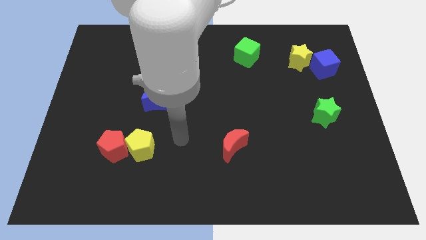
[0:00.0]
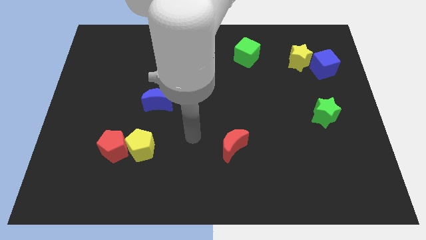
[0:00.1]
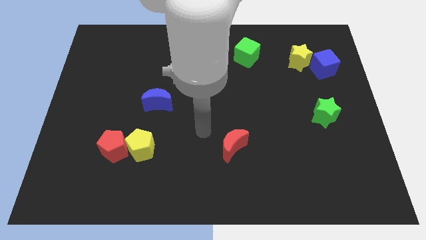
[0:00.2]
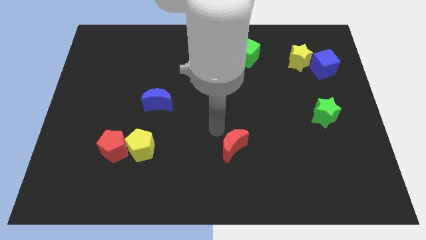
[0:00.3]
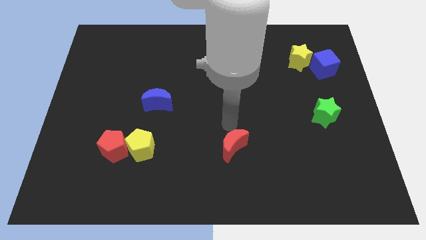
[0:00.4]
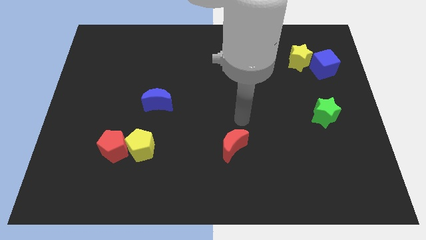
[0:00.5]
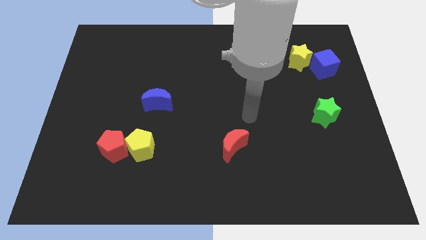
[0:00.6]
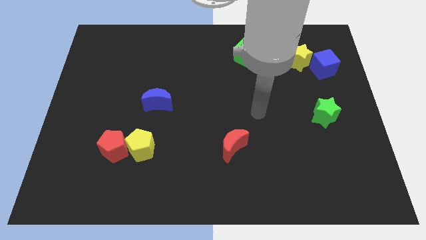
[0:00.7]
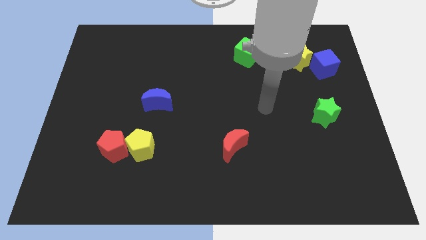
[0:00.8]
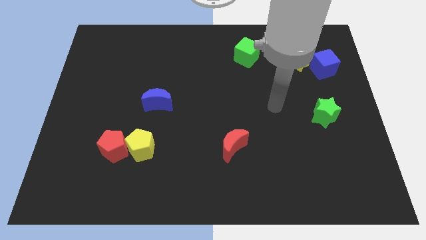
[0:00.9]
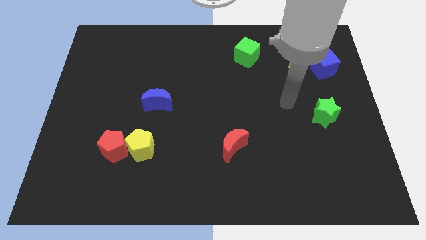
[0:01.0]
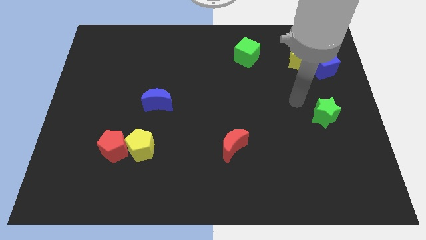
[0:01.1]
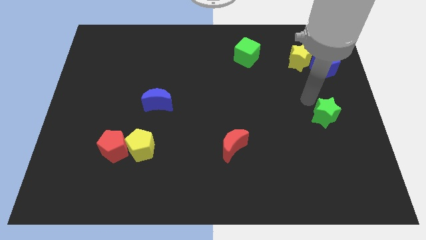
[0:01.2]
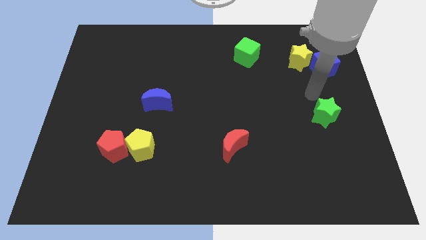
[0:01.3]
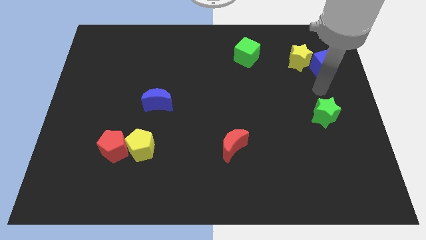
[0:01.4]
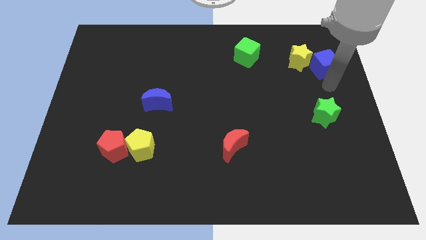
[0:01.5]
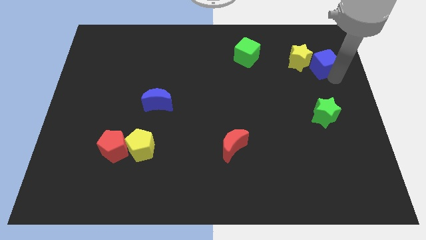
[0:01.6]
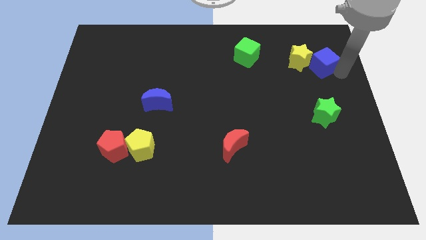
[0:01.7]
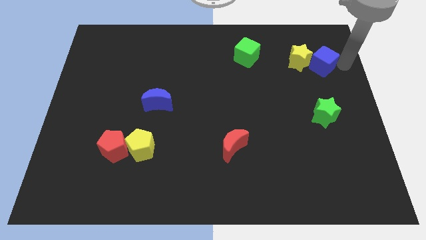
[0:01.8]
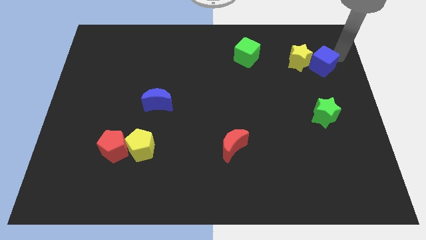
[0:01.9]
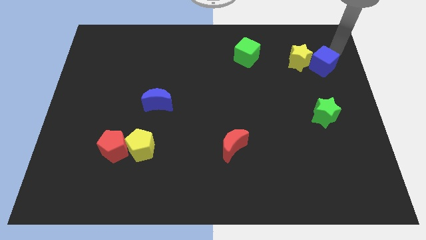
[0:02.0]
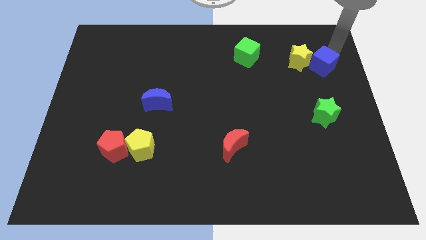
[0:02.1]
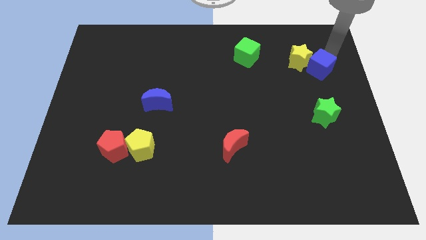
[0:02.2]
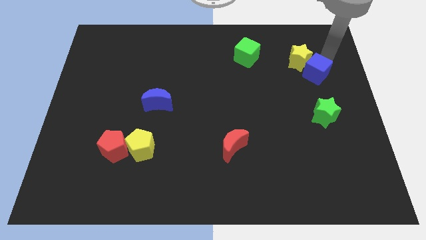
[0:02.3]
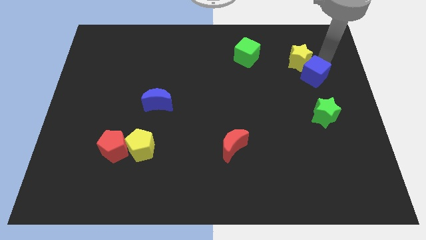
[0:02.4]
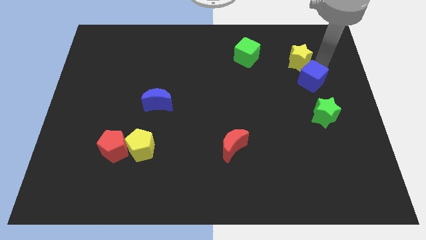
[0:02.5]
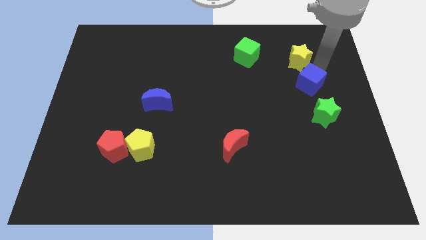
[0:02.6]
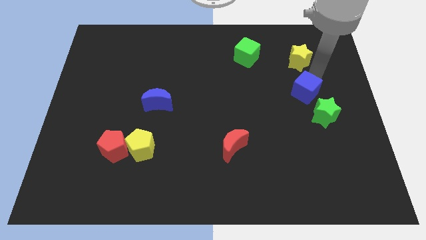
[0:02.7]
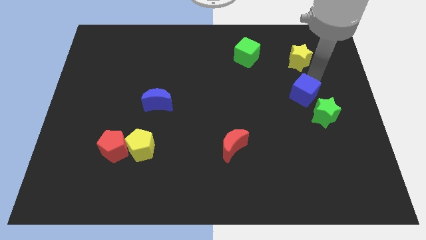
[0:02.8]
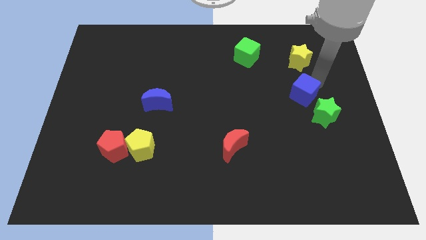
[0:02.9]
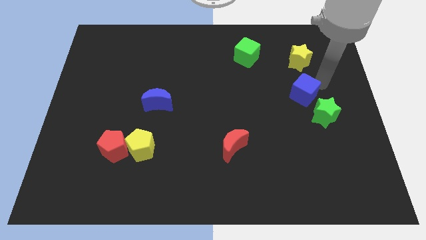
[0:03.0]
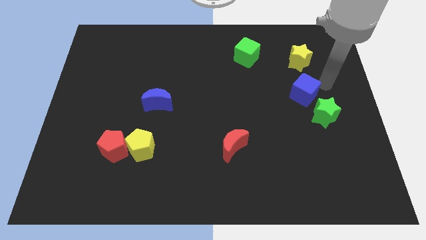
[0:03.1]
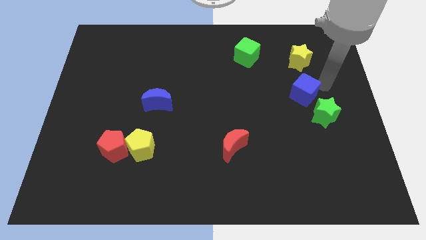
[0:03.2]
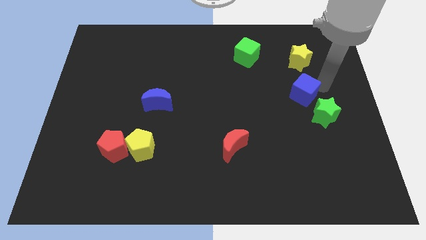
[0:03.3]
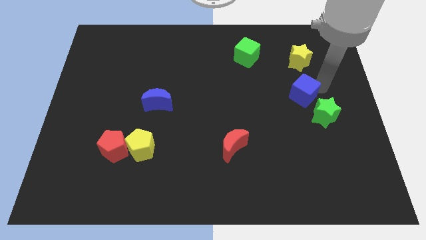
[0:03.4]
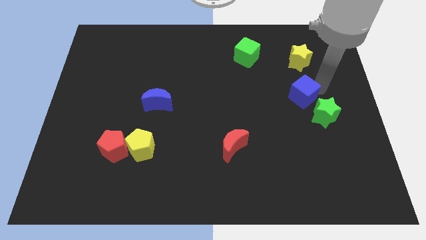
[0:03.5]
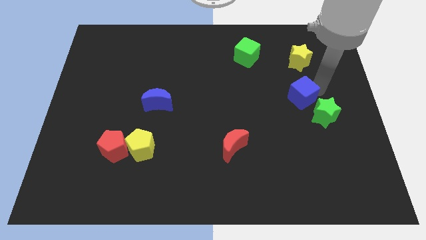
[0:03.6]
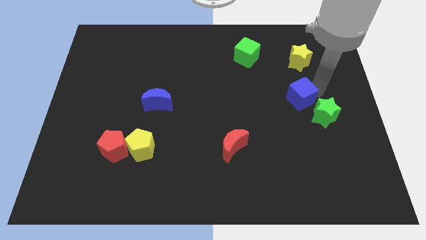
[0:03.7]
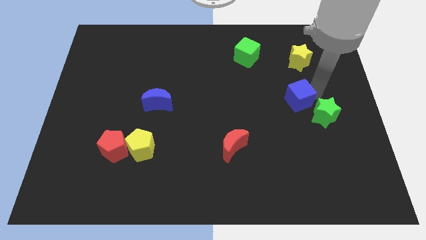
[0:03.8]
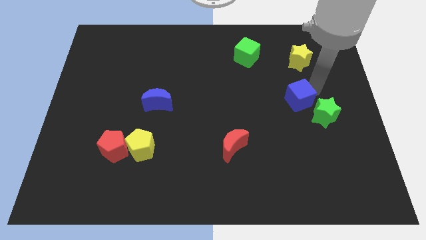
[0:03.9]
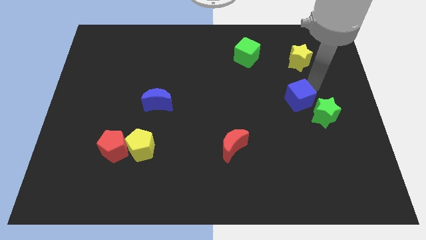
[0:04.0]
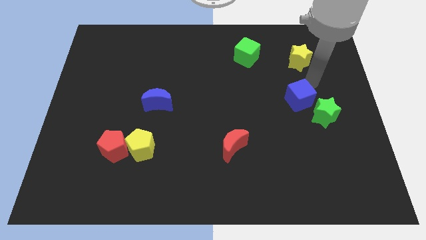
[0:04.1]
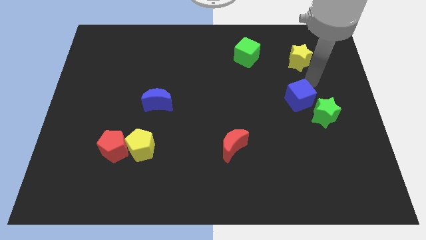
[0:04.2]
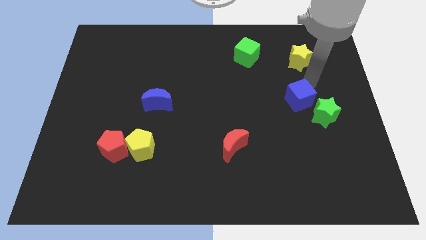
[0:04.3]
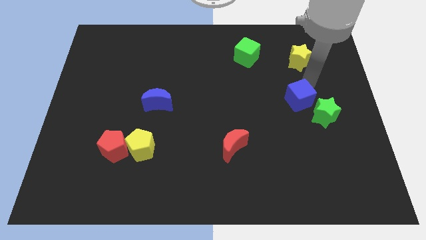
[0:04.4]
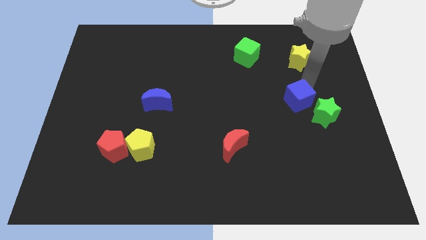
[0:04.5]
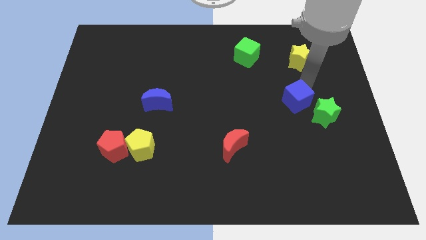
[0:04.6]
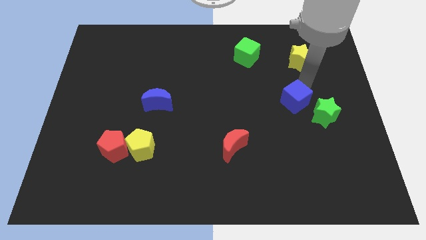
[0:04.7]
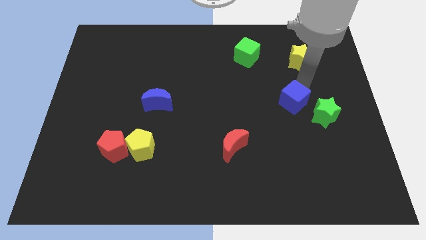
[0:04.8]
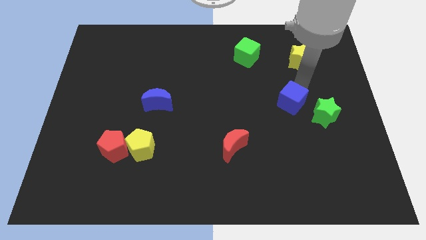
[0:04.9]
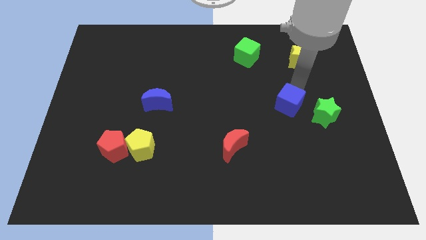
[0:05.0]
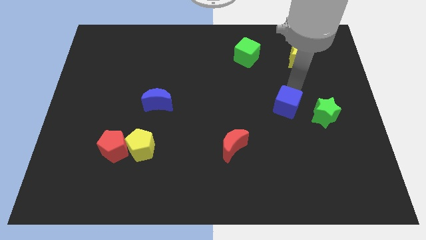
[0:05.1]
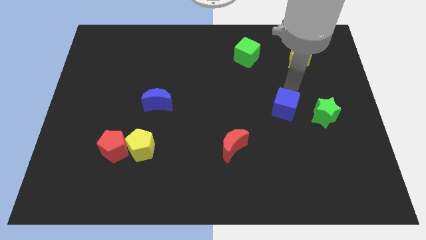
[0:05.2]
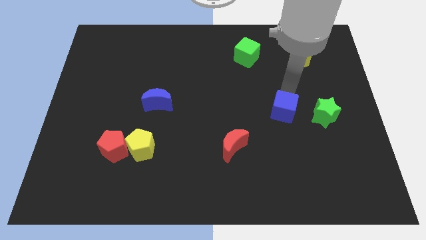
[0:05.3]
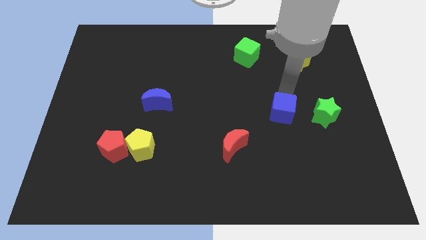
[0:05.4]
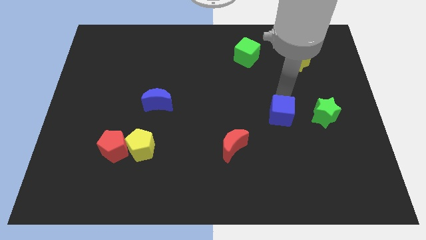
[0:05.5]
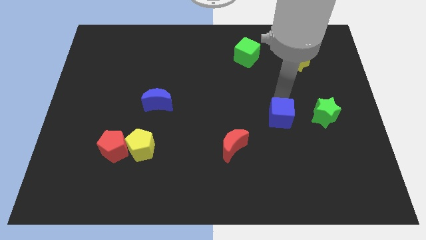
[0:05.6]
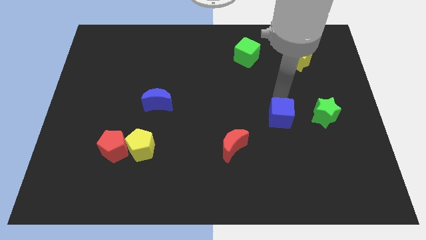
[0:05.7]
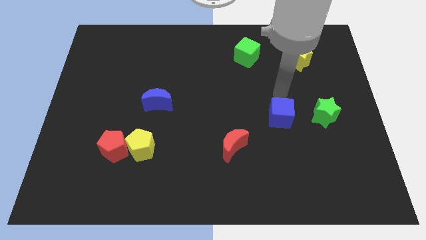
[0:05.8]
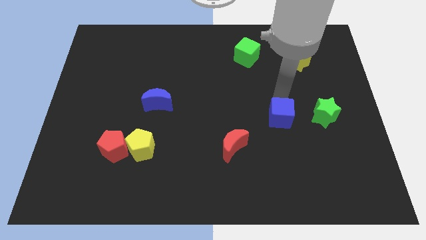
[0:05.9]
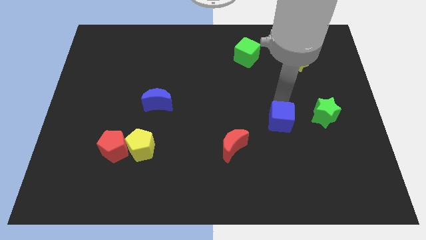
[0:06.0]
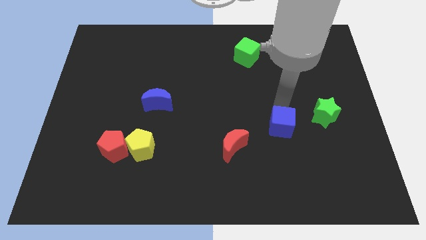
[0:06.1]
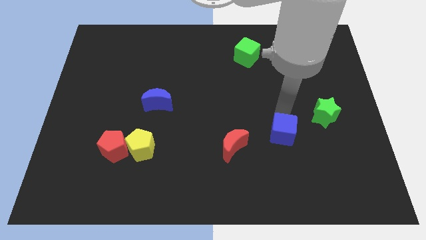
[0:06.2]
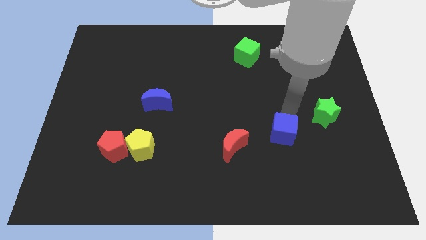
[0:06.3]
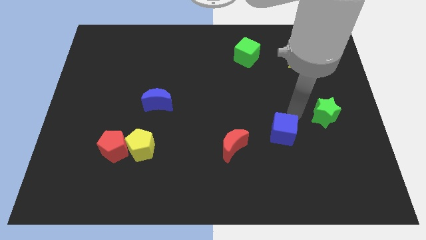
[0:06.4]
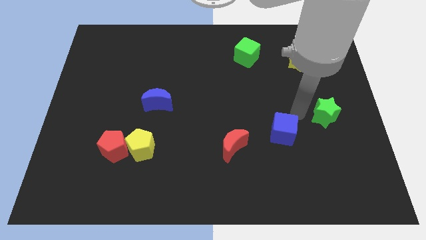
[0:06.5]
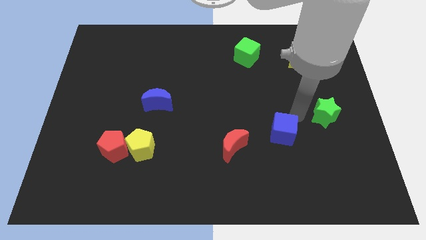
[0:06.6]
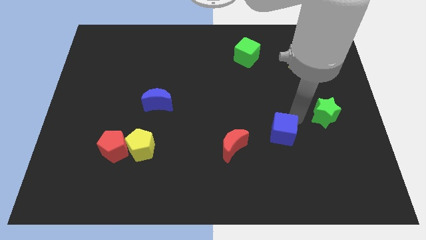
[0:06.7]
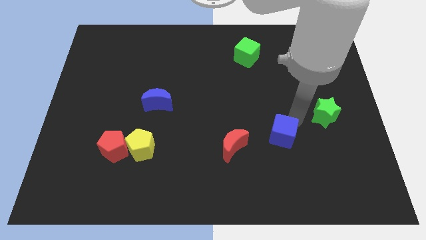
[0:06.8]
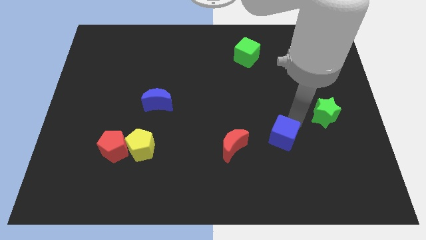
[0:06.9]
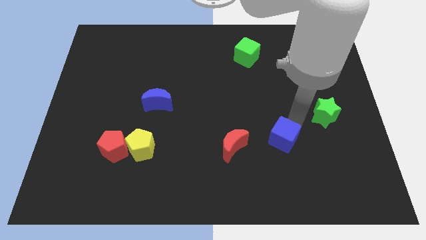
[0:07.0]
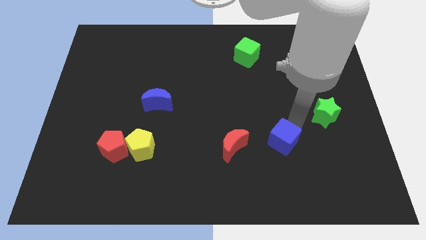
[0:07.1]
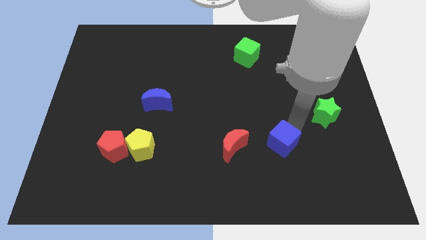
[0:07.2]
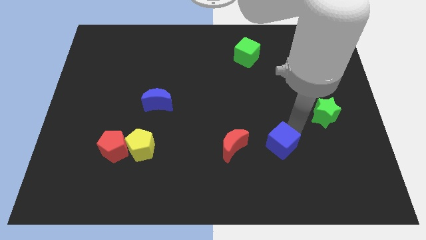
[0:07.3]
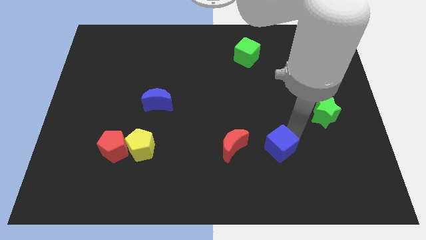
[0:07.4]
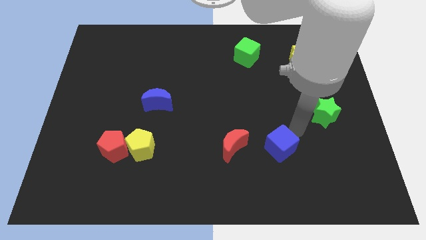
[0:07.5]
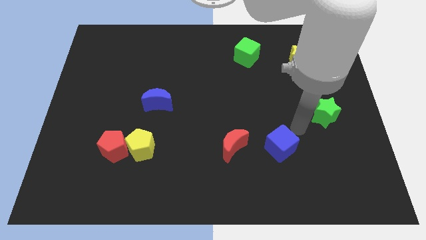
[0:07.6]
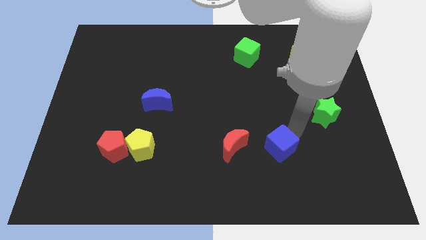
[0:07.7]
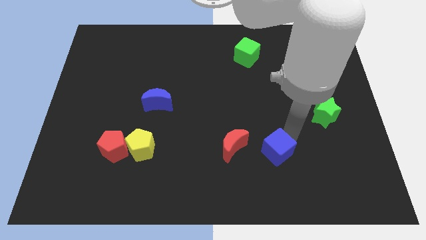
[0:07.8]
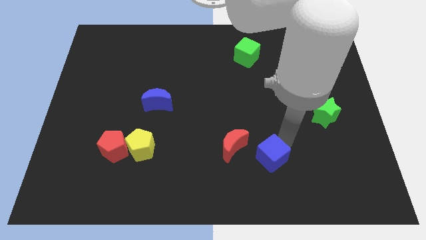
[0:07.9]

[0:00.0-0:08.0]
push the blue cube to the bottom right side of the red moon
